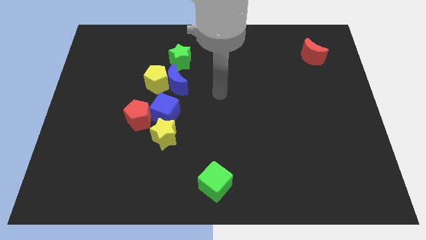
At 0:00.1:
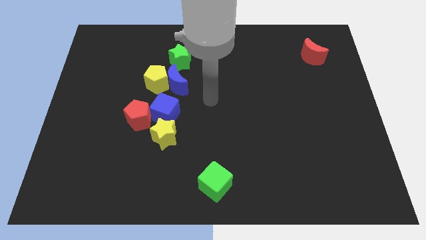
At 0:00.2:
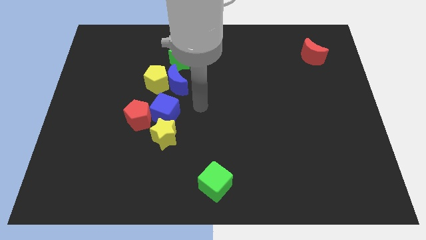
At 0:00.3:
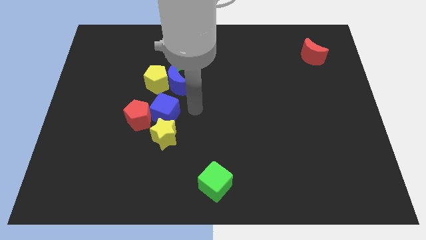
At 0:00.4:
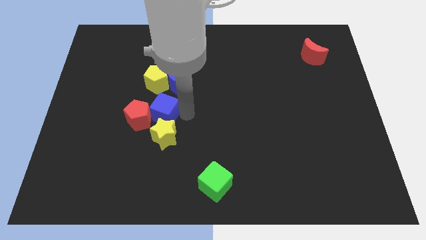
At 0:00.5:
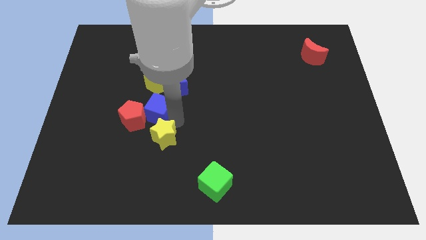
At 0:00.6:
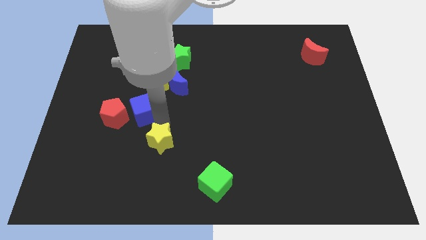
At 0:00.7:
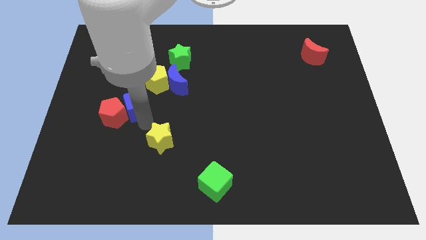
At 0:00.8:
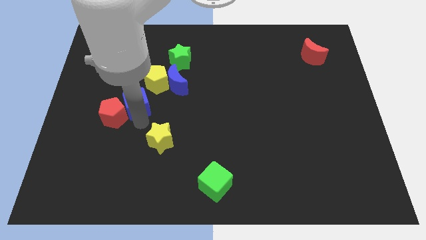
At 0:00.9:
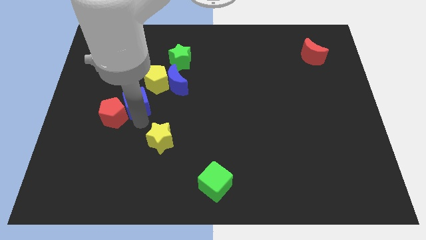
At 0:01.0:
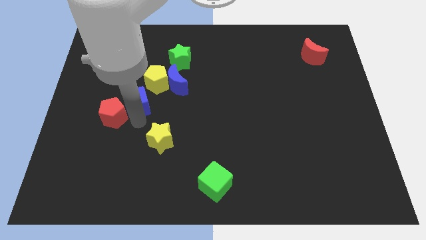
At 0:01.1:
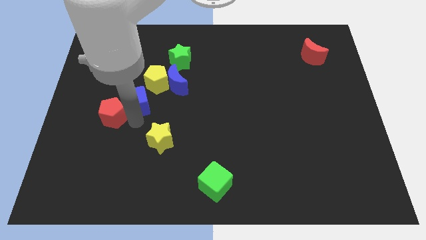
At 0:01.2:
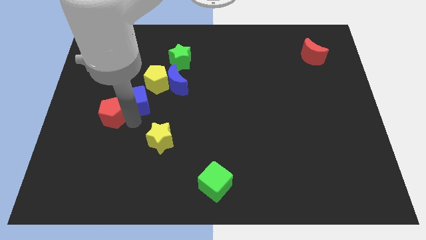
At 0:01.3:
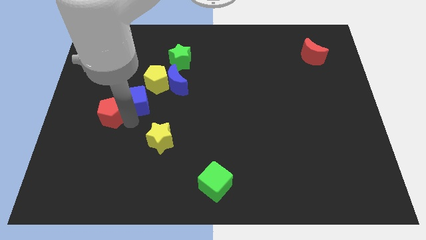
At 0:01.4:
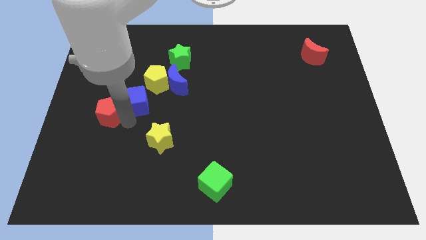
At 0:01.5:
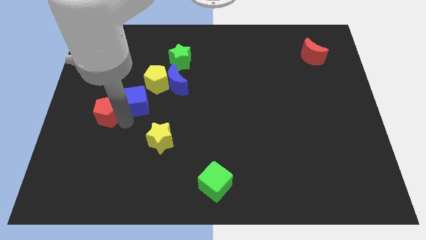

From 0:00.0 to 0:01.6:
separate the red pentagon from the blue cube and yellow star

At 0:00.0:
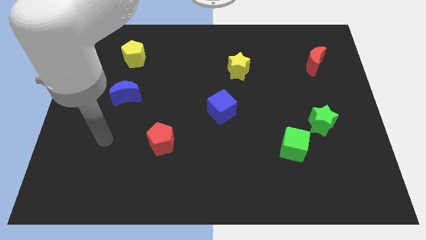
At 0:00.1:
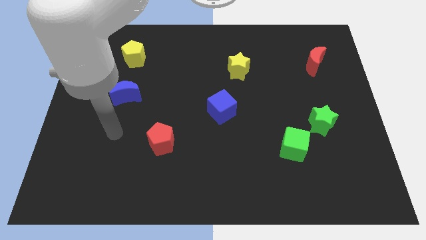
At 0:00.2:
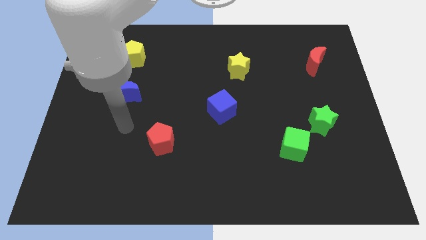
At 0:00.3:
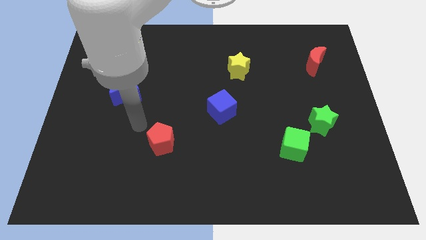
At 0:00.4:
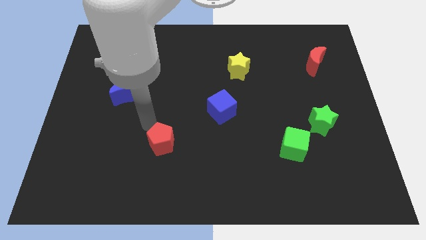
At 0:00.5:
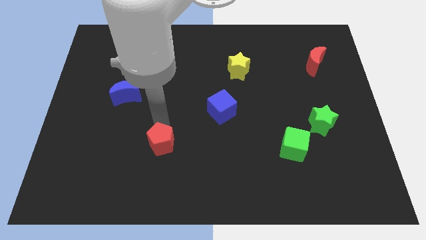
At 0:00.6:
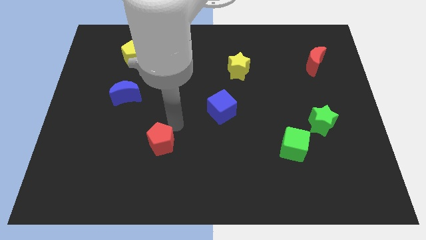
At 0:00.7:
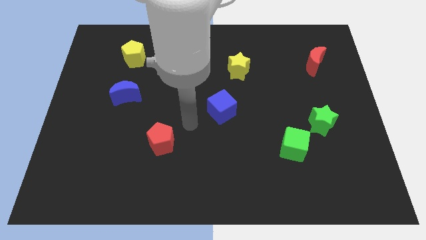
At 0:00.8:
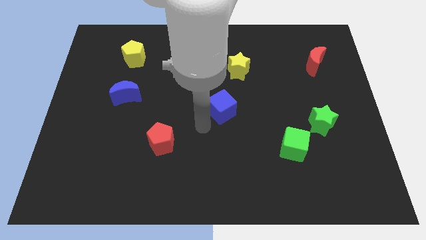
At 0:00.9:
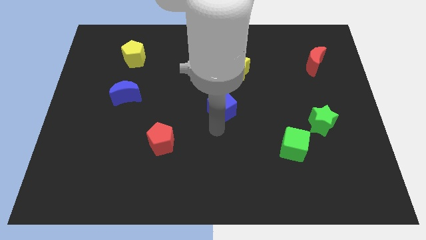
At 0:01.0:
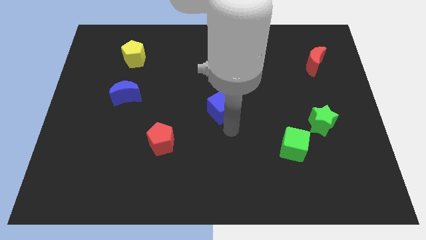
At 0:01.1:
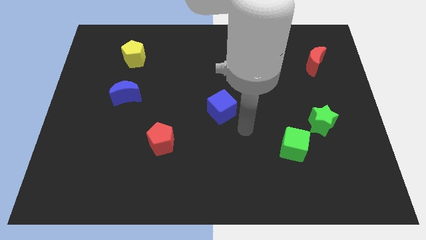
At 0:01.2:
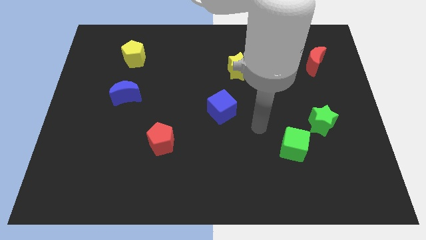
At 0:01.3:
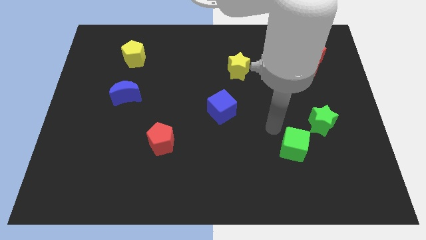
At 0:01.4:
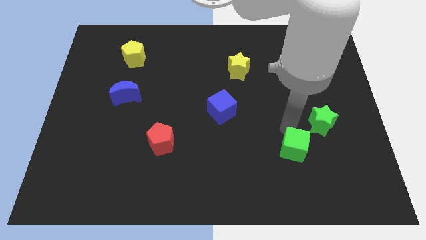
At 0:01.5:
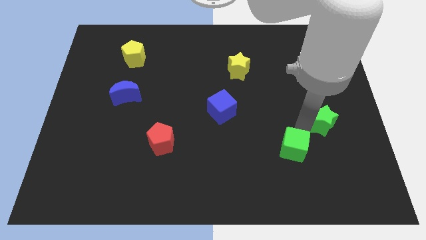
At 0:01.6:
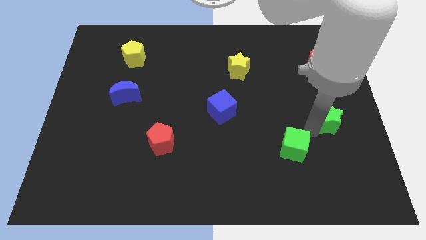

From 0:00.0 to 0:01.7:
move the green cube away from the green star

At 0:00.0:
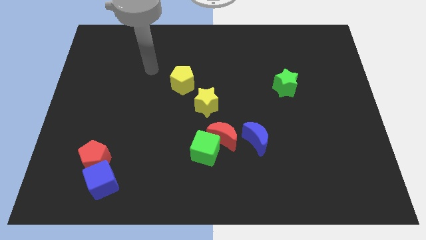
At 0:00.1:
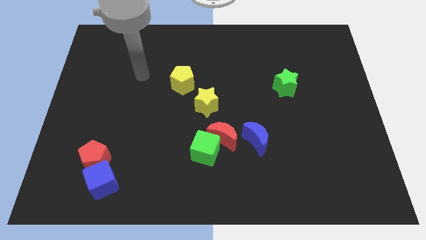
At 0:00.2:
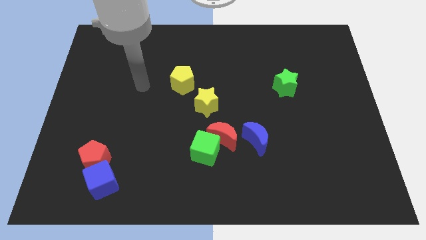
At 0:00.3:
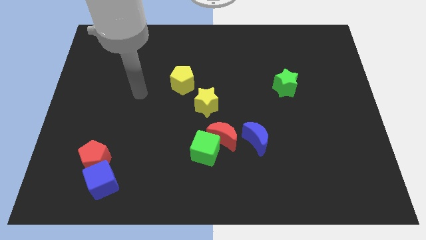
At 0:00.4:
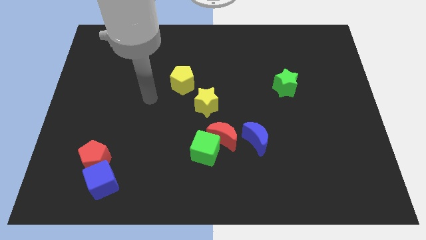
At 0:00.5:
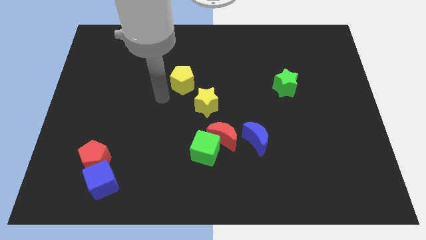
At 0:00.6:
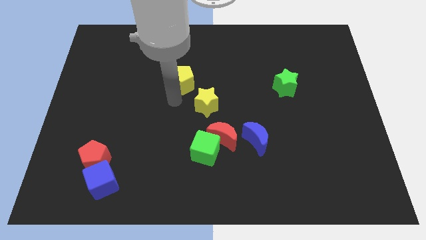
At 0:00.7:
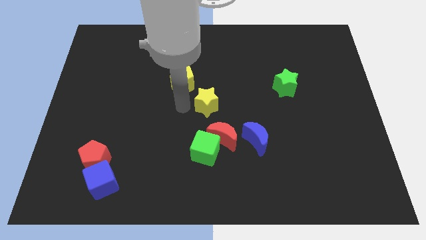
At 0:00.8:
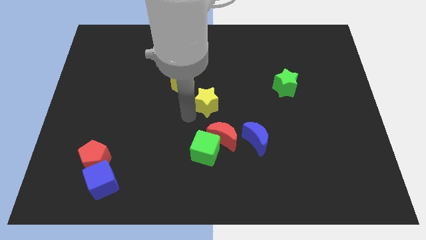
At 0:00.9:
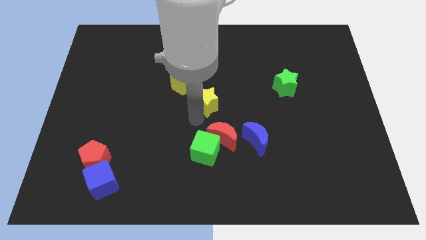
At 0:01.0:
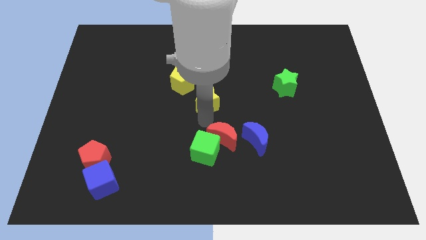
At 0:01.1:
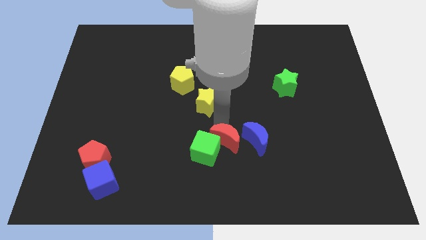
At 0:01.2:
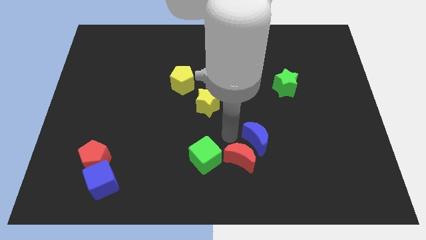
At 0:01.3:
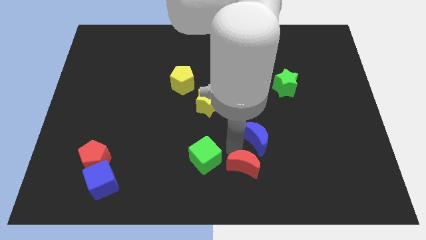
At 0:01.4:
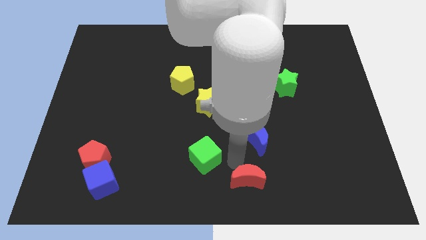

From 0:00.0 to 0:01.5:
pull the green cube apart from the red moon

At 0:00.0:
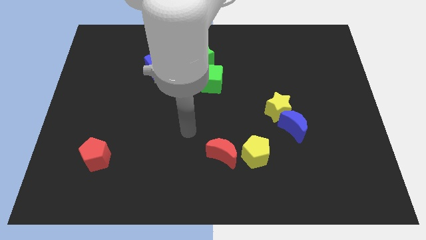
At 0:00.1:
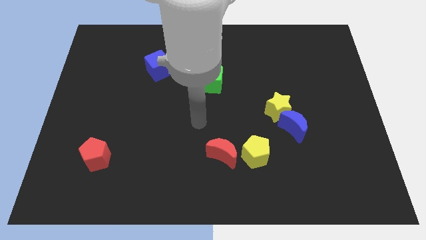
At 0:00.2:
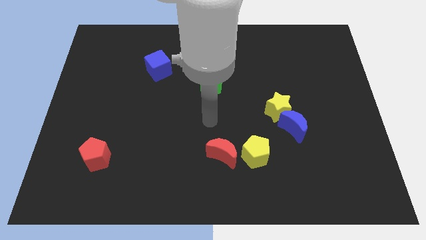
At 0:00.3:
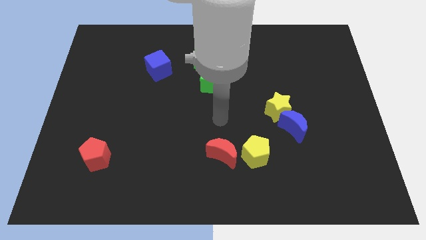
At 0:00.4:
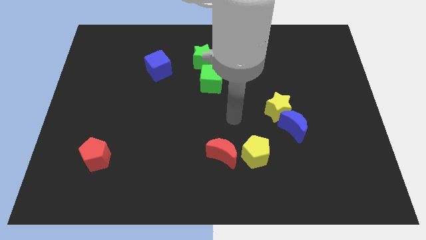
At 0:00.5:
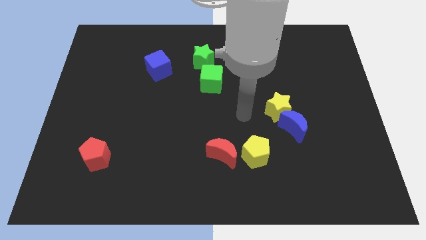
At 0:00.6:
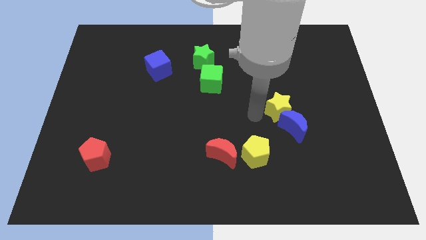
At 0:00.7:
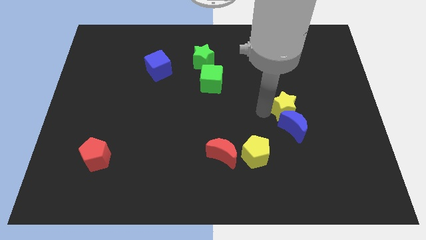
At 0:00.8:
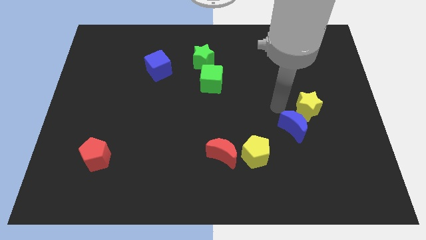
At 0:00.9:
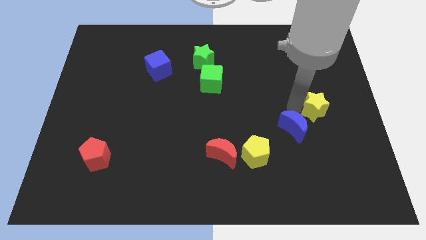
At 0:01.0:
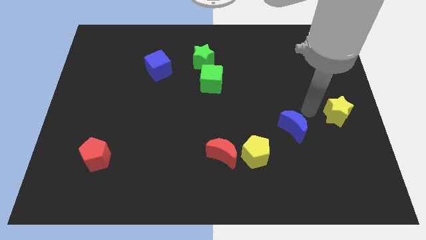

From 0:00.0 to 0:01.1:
separate the blue moon from the yellow star

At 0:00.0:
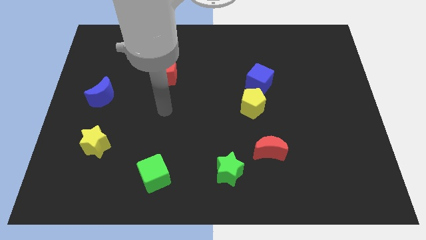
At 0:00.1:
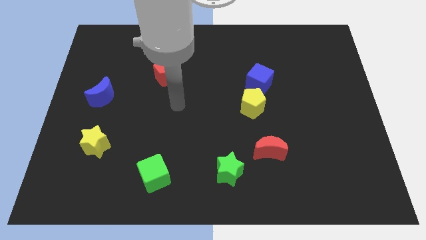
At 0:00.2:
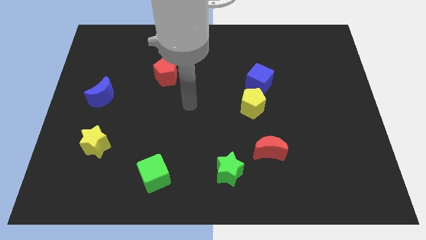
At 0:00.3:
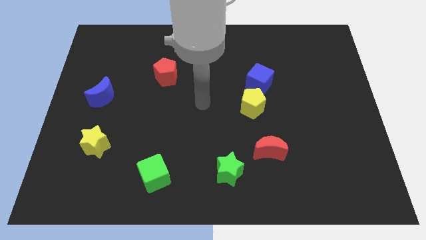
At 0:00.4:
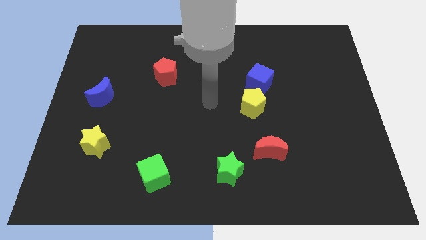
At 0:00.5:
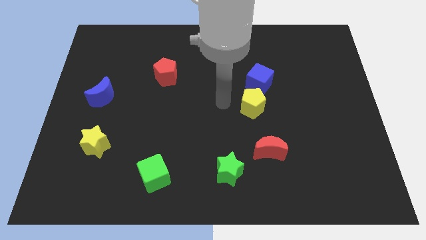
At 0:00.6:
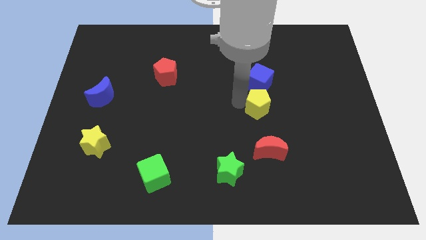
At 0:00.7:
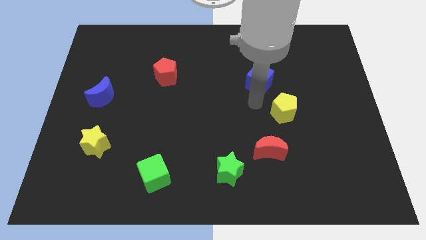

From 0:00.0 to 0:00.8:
pull the blue cube apart from the yellow pentagon

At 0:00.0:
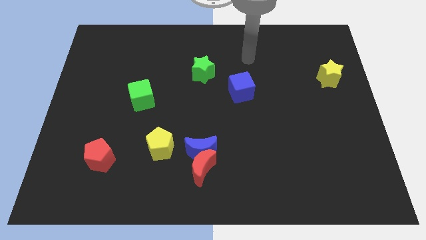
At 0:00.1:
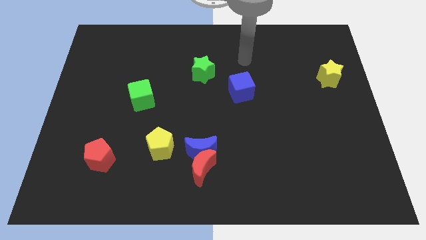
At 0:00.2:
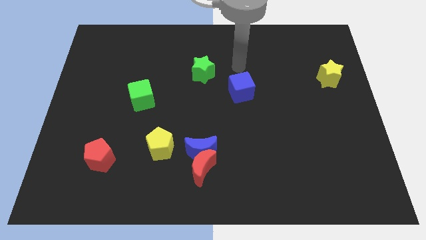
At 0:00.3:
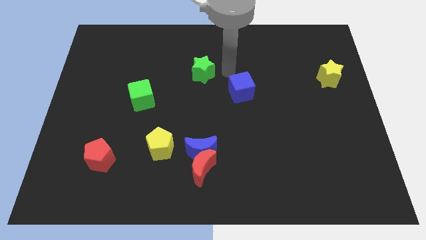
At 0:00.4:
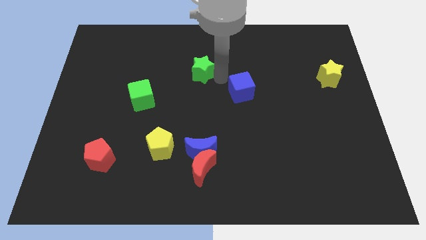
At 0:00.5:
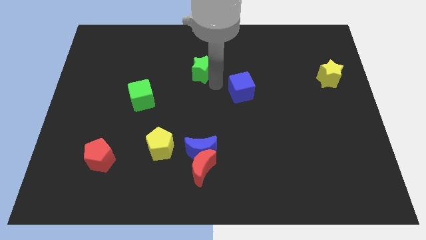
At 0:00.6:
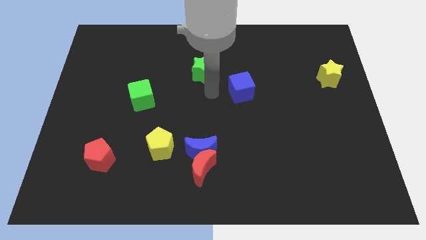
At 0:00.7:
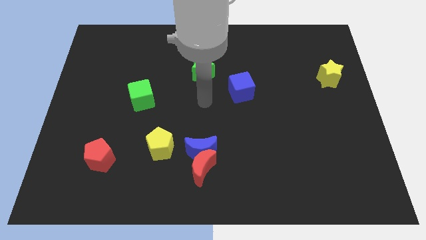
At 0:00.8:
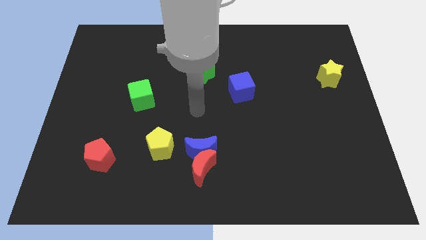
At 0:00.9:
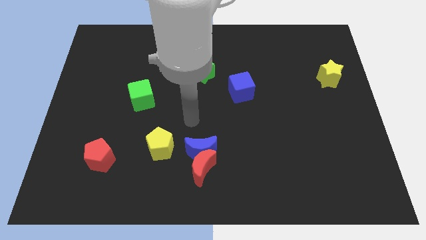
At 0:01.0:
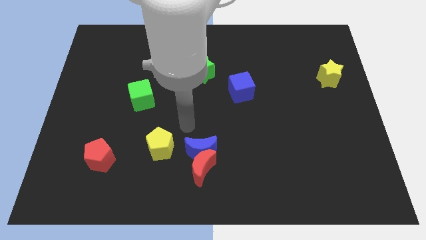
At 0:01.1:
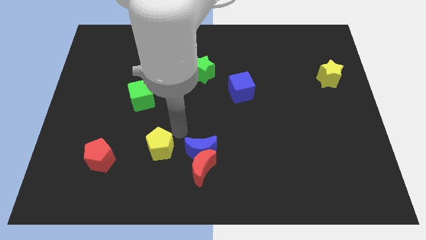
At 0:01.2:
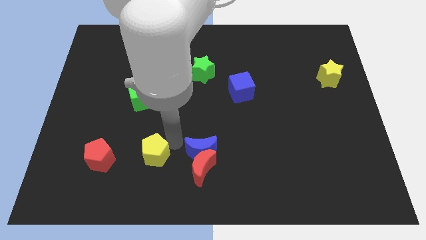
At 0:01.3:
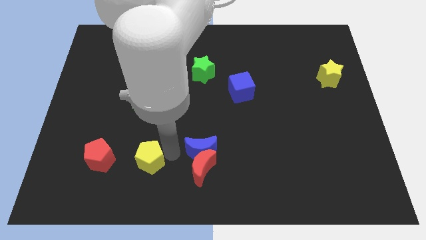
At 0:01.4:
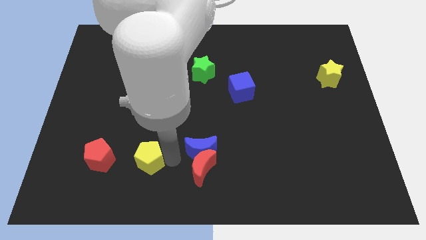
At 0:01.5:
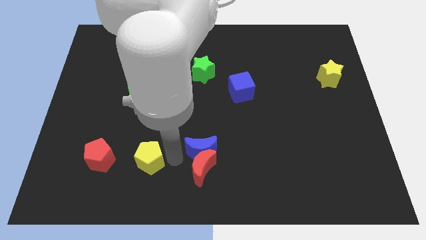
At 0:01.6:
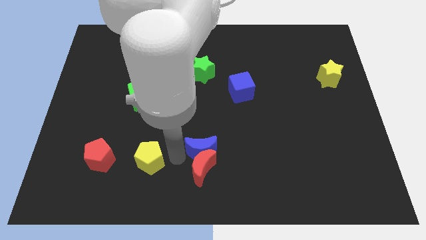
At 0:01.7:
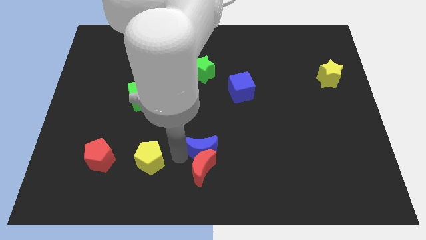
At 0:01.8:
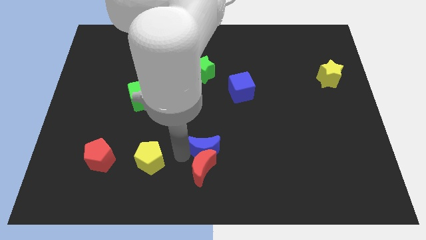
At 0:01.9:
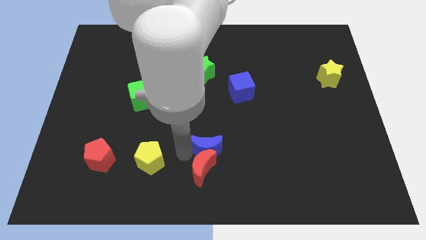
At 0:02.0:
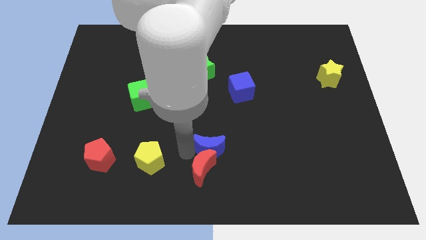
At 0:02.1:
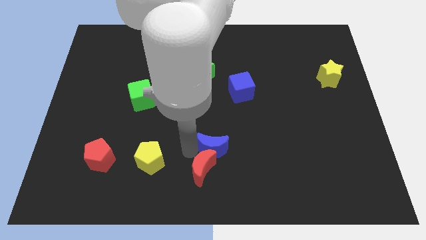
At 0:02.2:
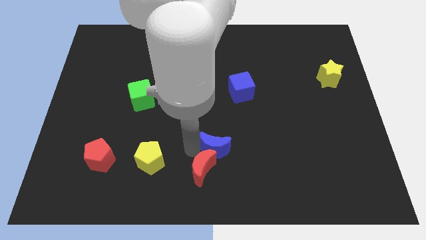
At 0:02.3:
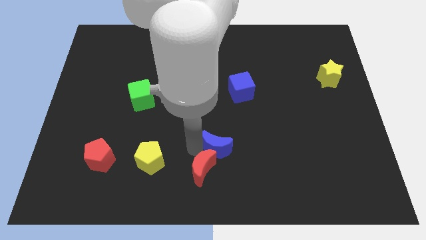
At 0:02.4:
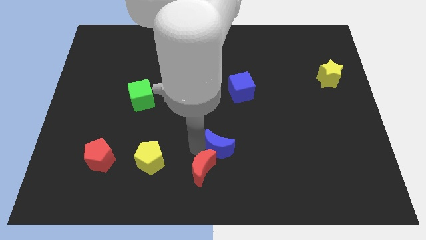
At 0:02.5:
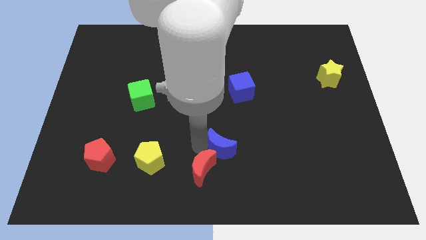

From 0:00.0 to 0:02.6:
separate the blue moon from the red moon and yellow pentagon
